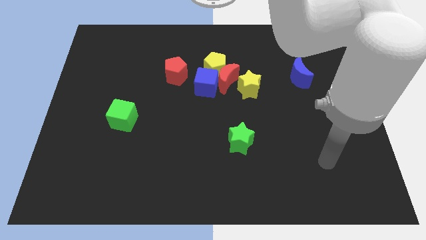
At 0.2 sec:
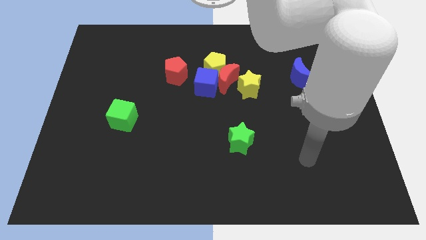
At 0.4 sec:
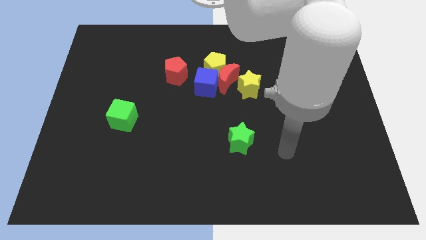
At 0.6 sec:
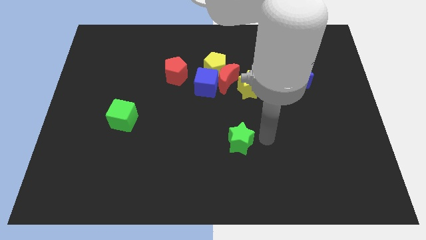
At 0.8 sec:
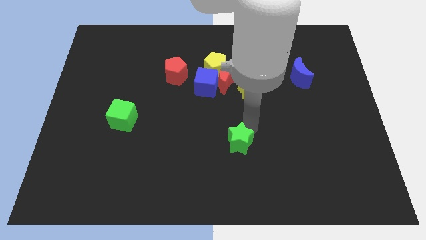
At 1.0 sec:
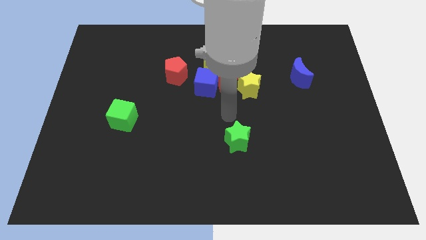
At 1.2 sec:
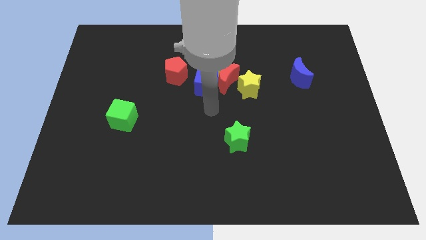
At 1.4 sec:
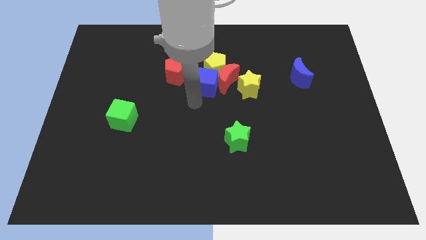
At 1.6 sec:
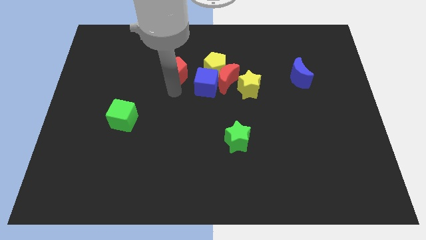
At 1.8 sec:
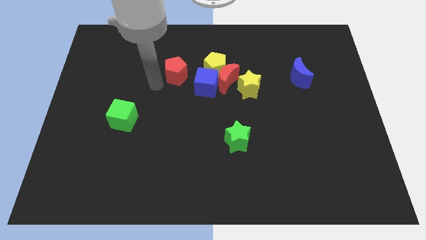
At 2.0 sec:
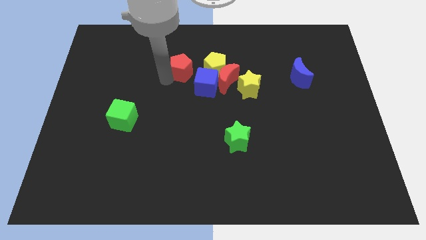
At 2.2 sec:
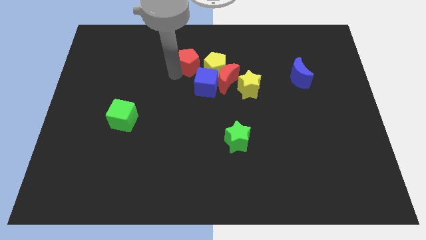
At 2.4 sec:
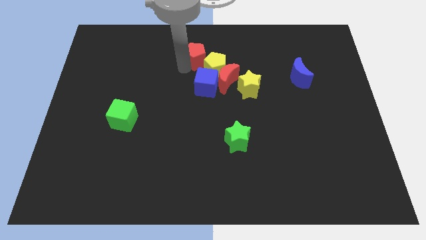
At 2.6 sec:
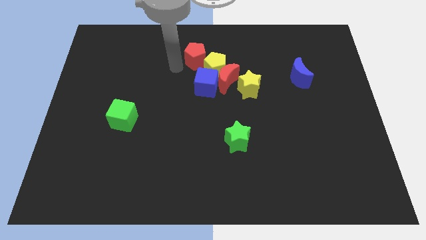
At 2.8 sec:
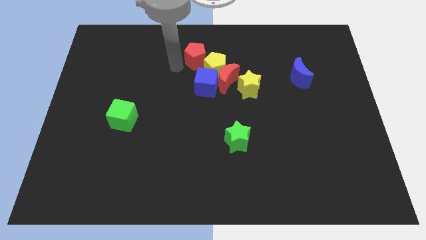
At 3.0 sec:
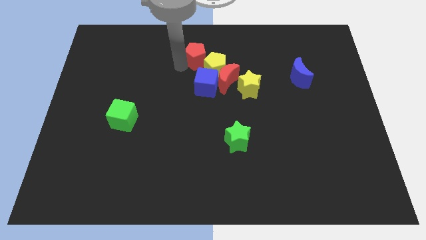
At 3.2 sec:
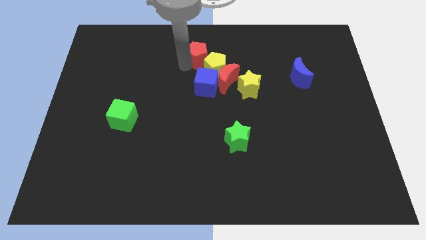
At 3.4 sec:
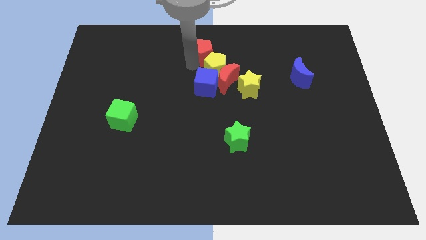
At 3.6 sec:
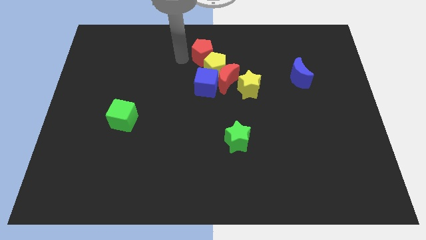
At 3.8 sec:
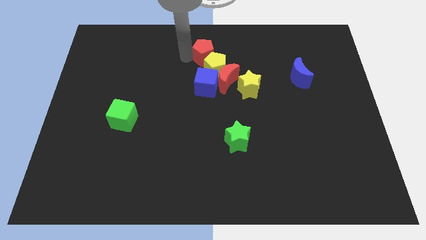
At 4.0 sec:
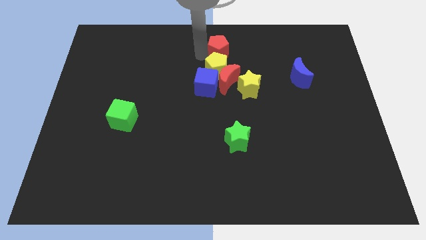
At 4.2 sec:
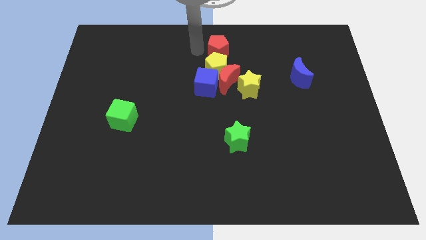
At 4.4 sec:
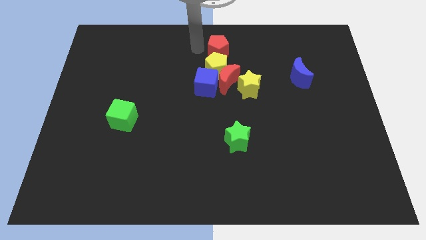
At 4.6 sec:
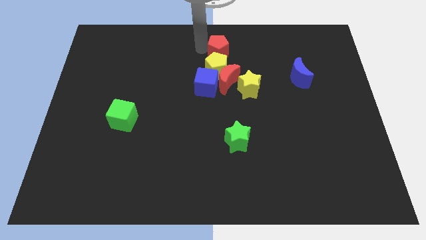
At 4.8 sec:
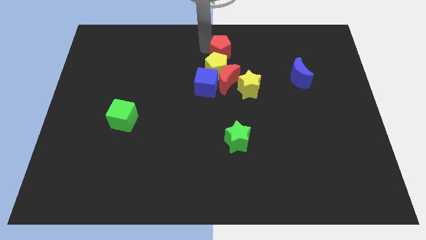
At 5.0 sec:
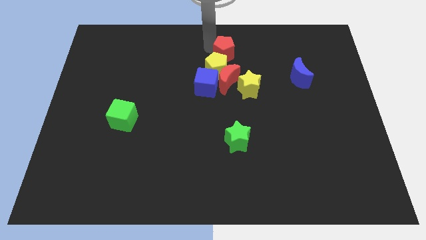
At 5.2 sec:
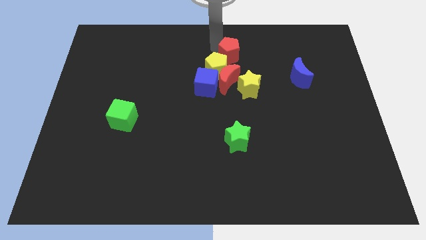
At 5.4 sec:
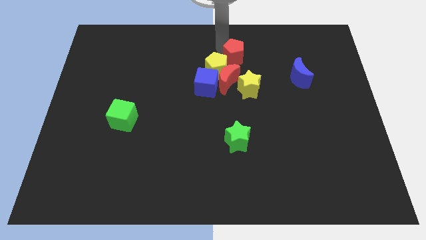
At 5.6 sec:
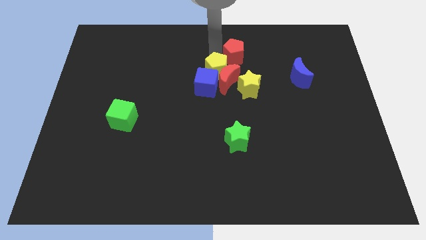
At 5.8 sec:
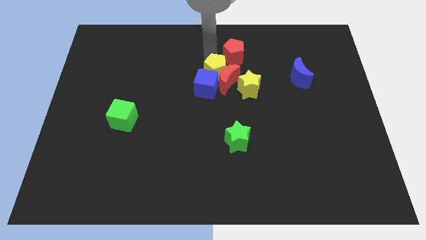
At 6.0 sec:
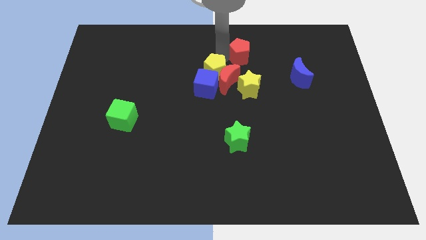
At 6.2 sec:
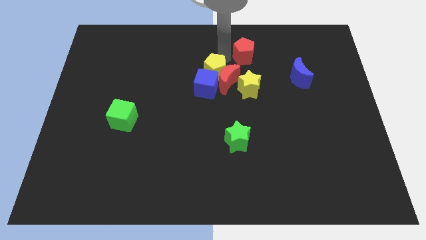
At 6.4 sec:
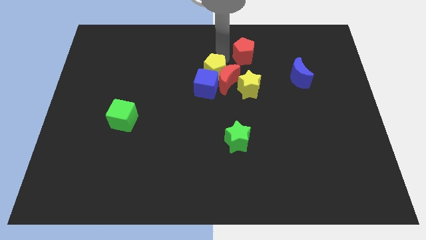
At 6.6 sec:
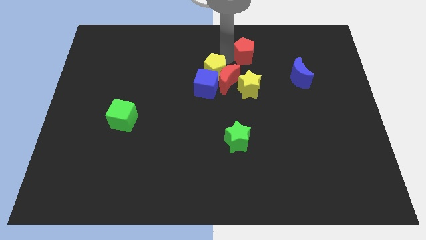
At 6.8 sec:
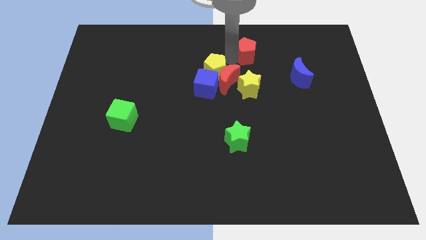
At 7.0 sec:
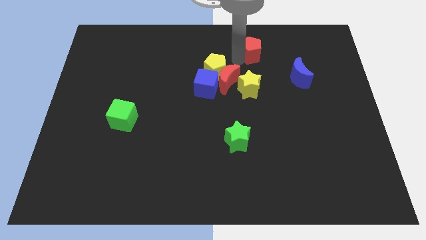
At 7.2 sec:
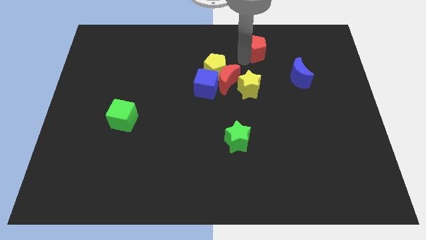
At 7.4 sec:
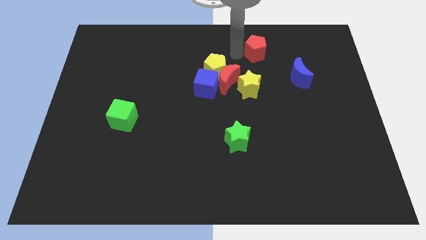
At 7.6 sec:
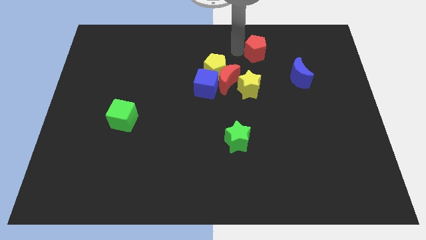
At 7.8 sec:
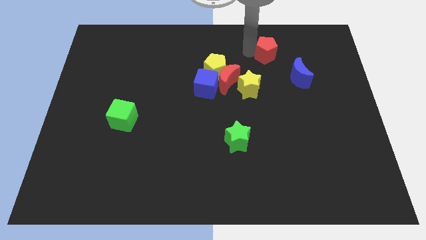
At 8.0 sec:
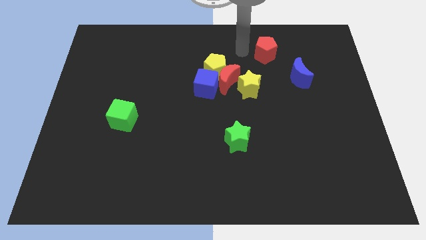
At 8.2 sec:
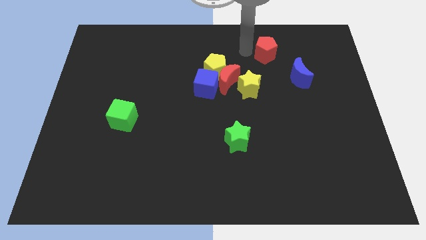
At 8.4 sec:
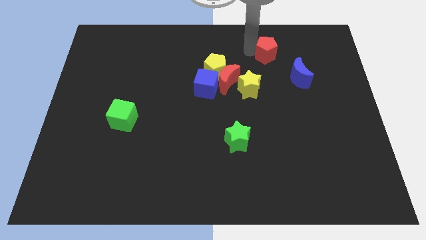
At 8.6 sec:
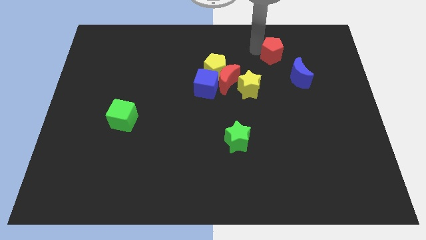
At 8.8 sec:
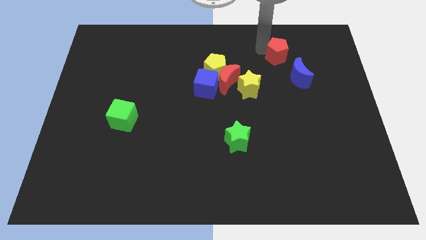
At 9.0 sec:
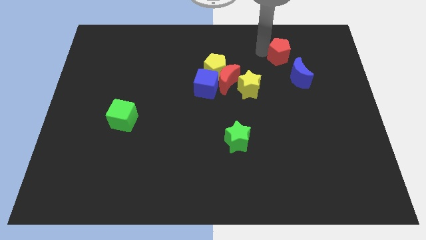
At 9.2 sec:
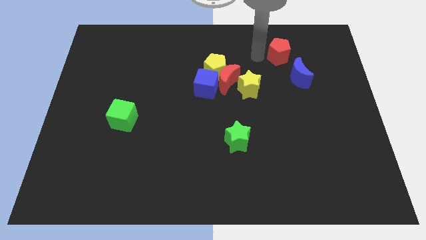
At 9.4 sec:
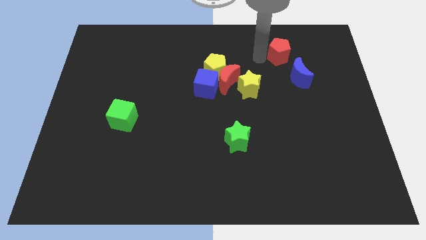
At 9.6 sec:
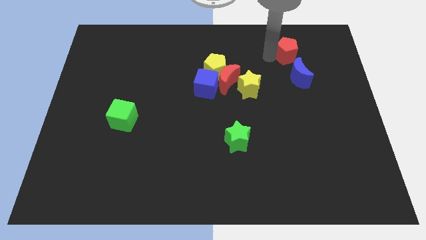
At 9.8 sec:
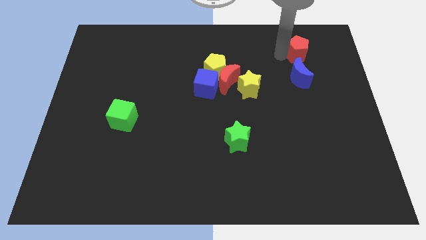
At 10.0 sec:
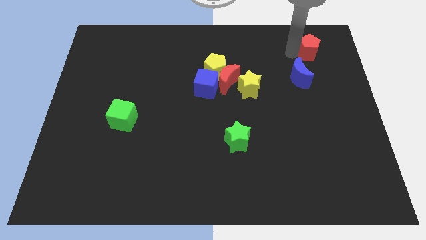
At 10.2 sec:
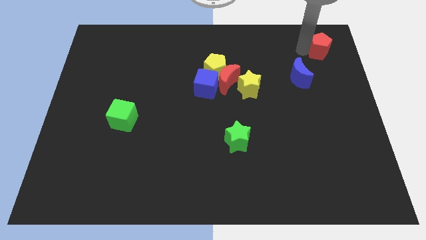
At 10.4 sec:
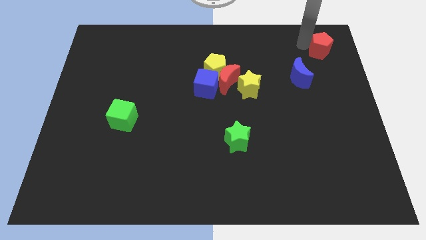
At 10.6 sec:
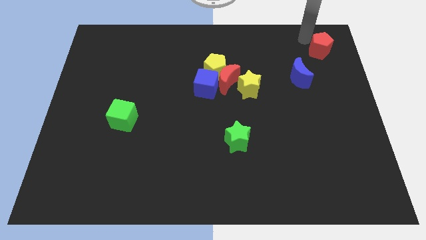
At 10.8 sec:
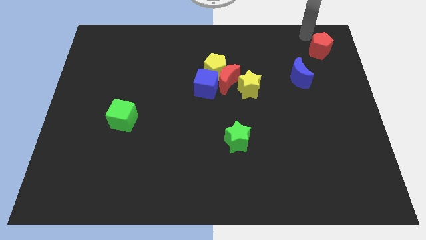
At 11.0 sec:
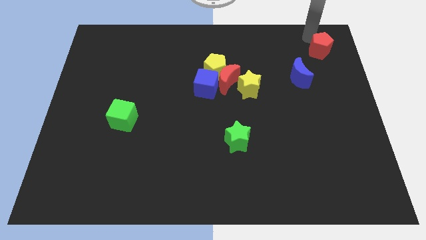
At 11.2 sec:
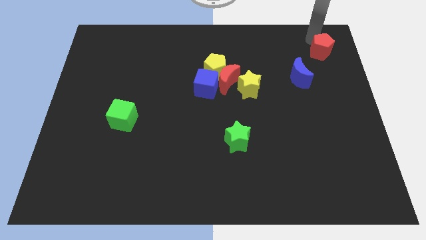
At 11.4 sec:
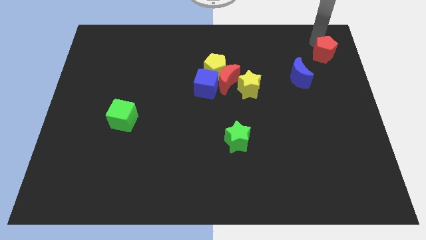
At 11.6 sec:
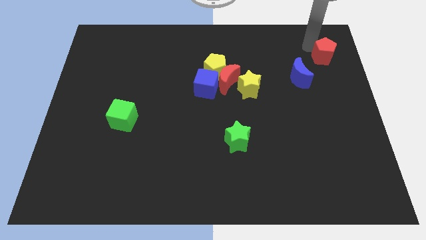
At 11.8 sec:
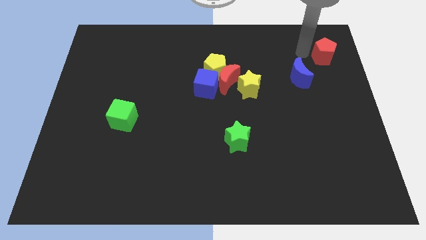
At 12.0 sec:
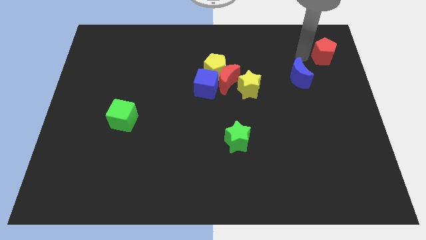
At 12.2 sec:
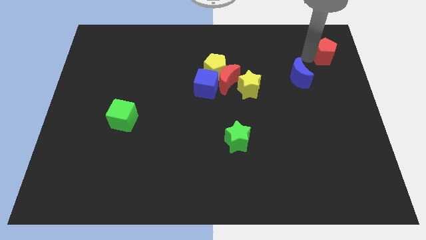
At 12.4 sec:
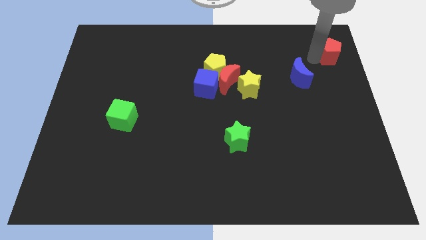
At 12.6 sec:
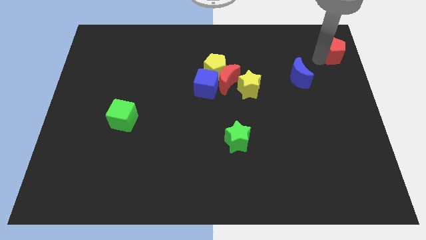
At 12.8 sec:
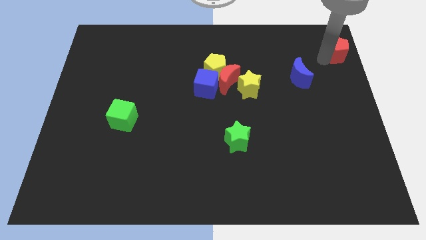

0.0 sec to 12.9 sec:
move the red pentagon to the top right
